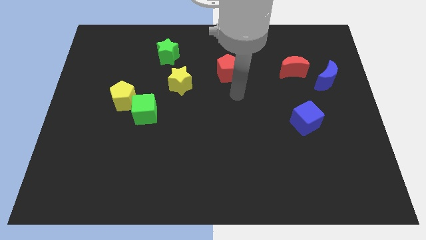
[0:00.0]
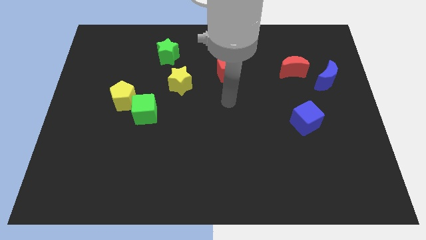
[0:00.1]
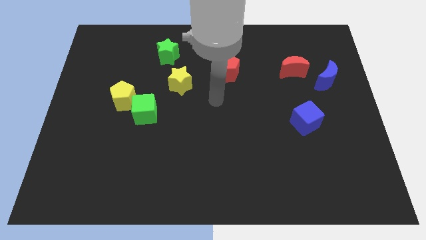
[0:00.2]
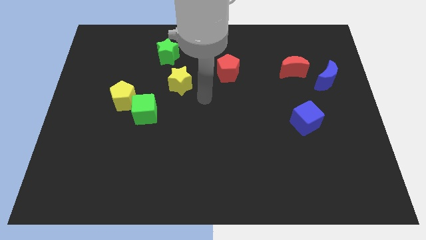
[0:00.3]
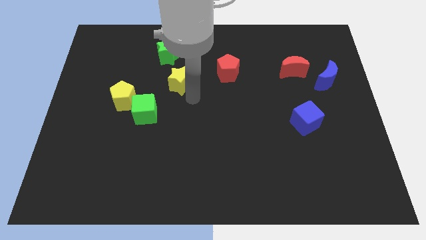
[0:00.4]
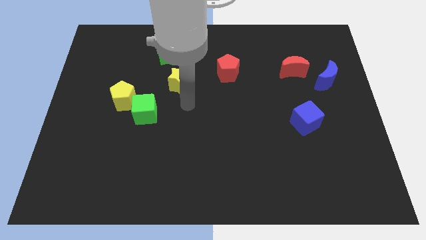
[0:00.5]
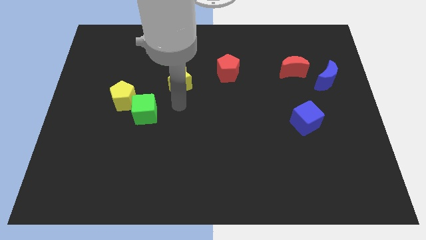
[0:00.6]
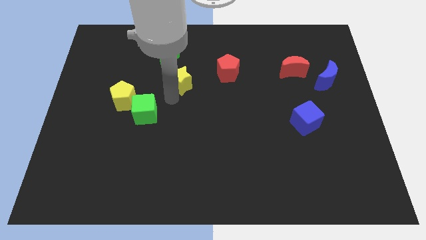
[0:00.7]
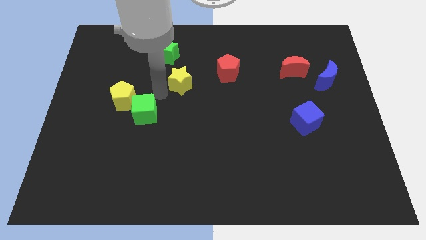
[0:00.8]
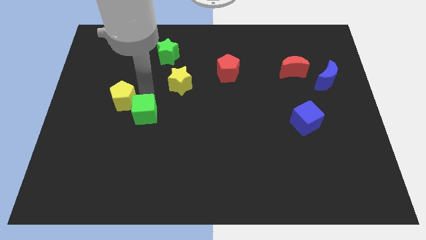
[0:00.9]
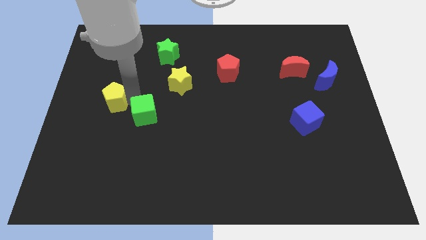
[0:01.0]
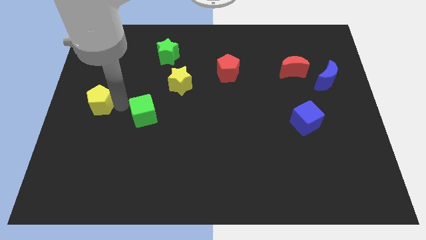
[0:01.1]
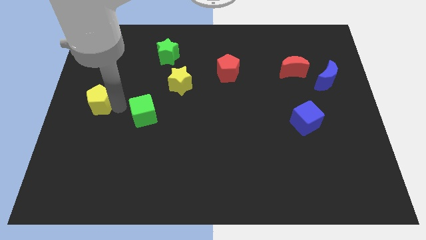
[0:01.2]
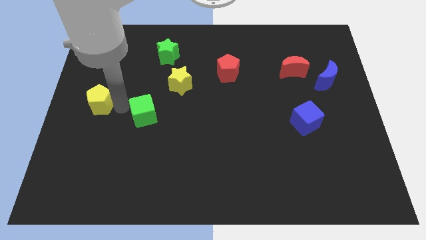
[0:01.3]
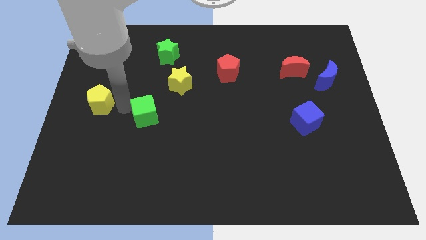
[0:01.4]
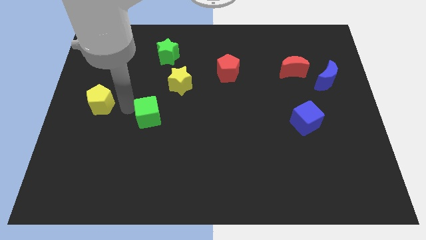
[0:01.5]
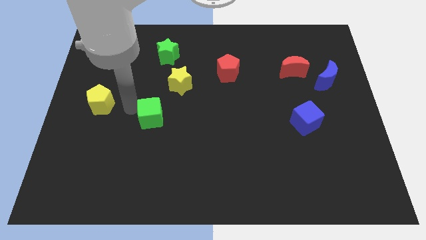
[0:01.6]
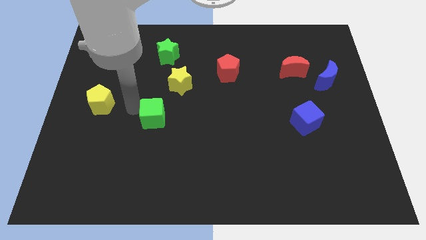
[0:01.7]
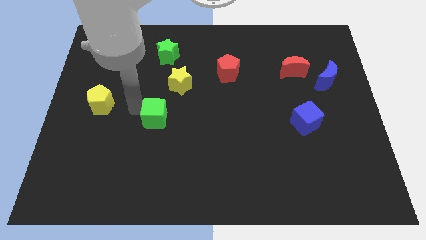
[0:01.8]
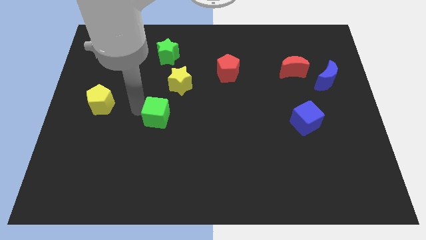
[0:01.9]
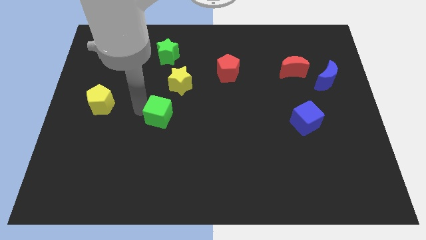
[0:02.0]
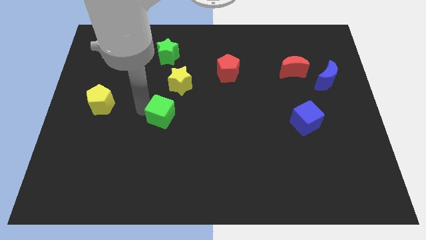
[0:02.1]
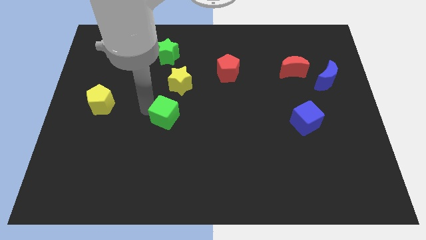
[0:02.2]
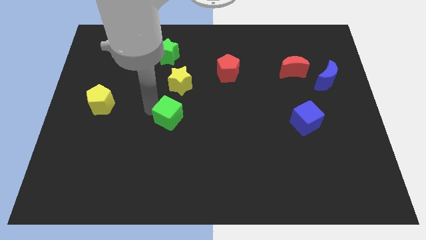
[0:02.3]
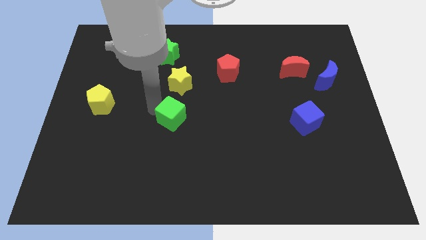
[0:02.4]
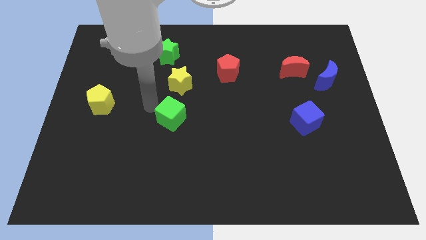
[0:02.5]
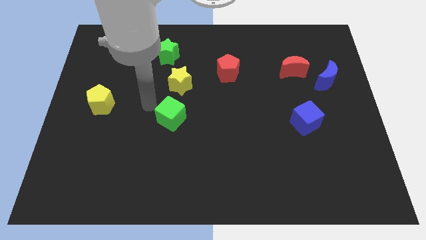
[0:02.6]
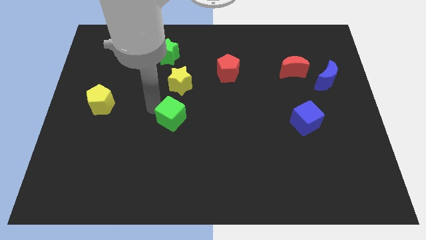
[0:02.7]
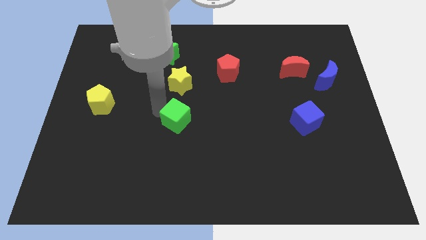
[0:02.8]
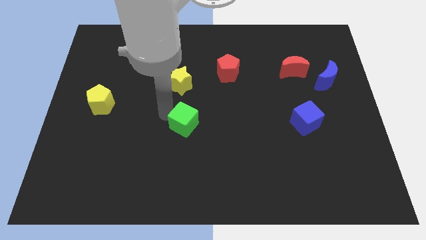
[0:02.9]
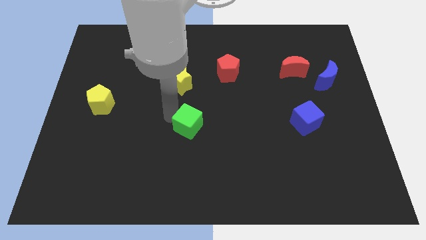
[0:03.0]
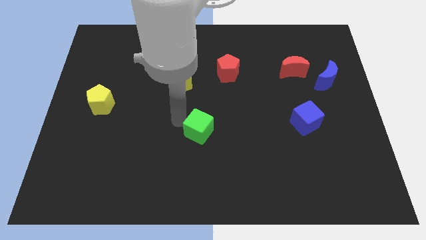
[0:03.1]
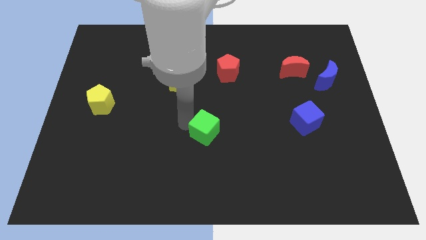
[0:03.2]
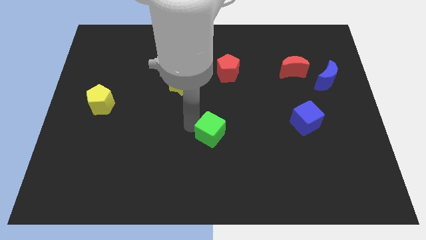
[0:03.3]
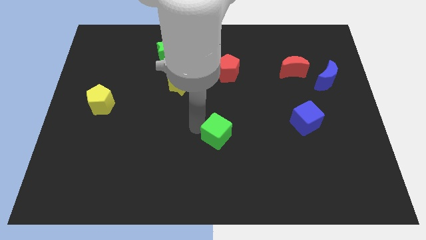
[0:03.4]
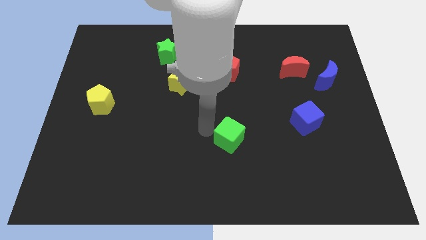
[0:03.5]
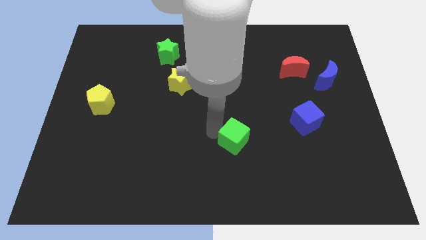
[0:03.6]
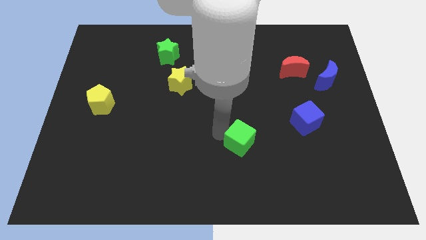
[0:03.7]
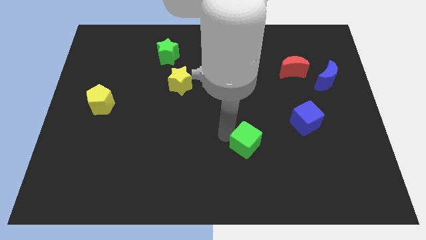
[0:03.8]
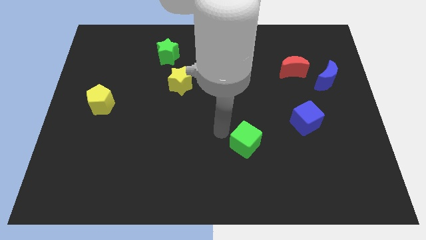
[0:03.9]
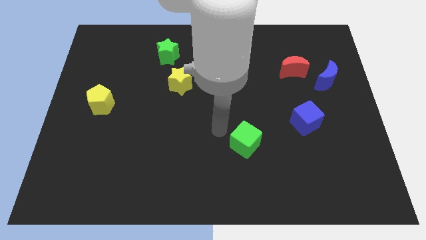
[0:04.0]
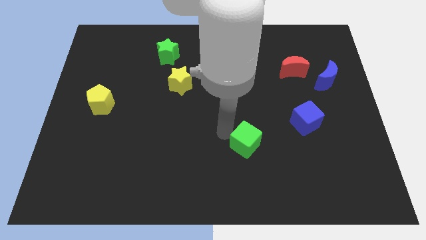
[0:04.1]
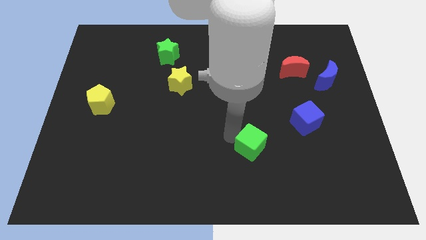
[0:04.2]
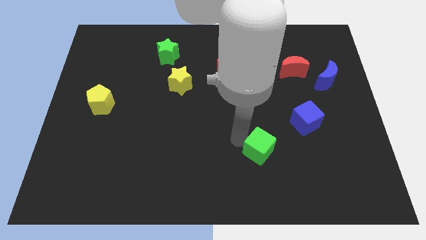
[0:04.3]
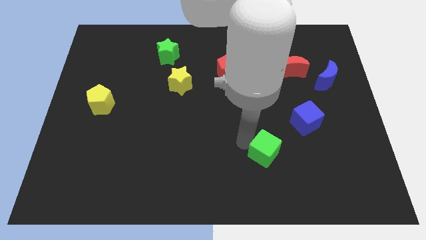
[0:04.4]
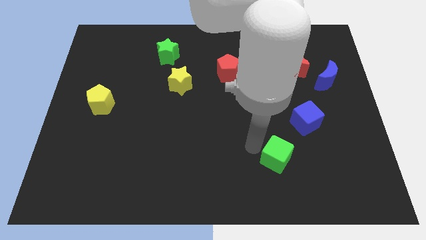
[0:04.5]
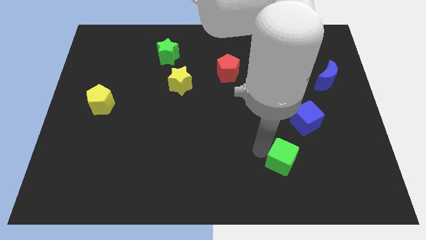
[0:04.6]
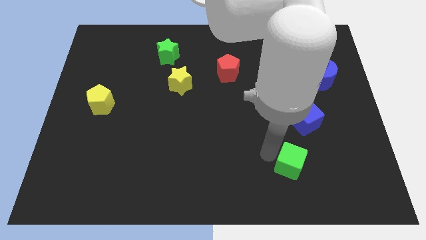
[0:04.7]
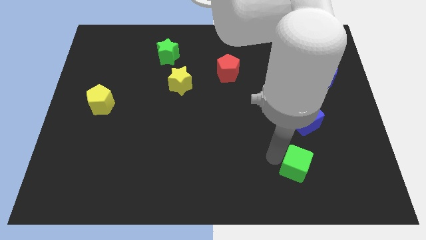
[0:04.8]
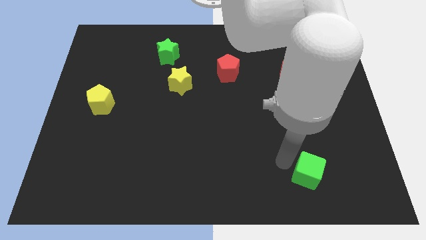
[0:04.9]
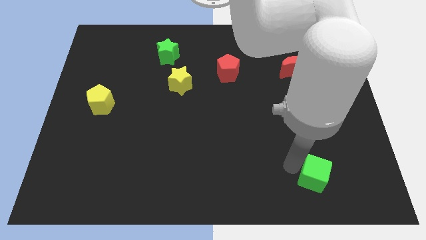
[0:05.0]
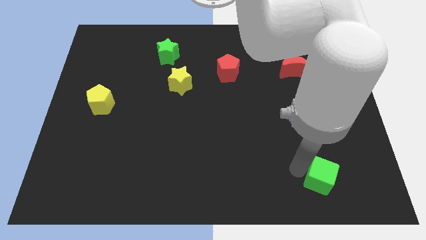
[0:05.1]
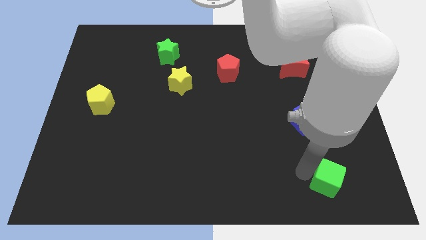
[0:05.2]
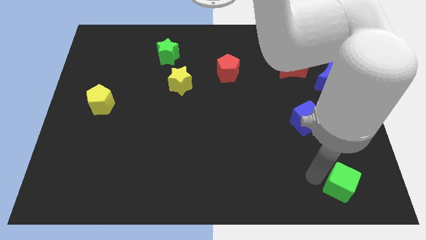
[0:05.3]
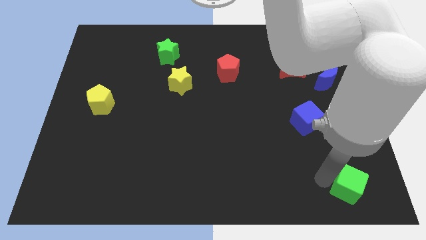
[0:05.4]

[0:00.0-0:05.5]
put the green cube to the bottom right

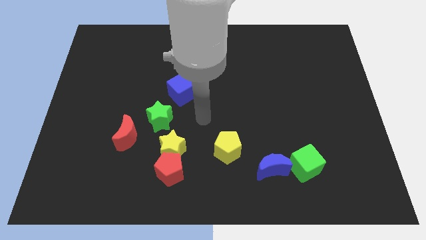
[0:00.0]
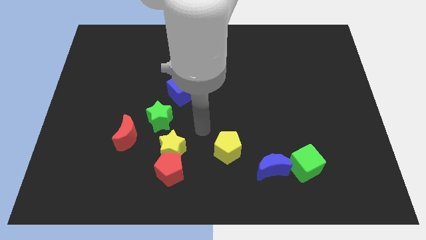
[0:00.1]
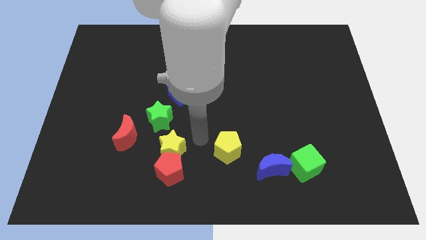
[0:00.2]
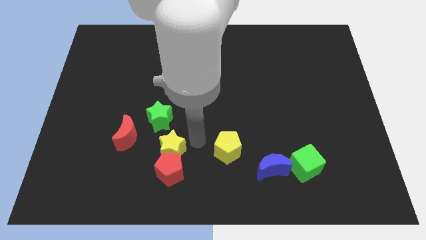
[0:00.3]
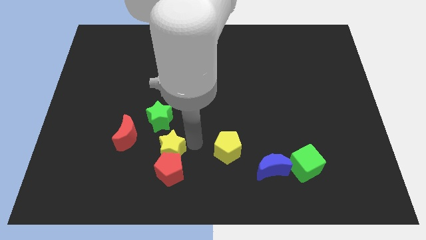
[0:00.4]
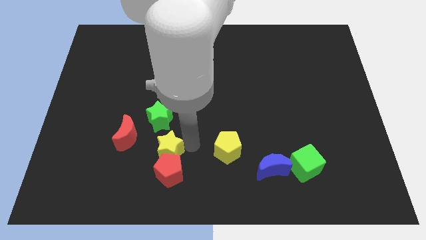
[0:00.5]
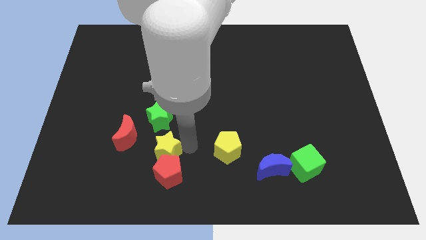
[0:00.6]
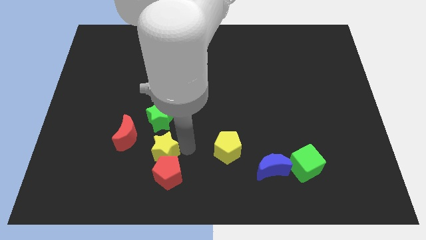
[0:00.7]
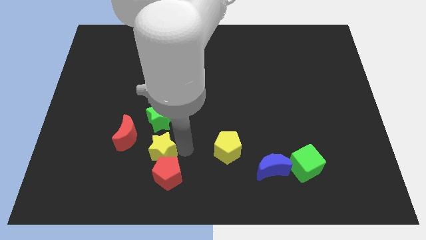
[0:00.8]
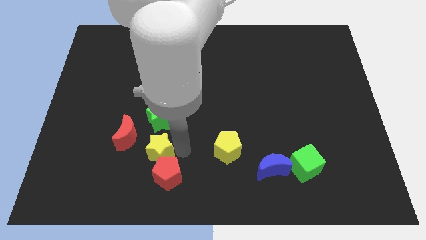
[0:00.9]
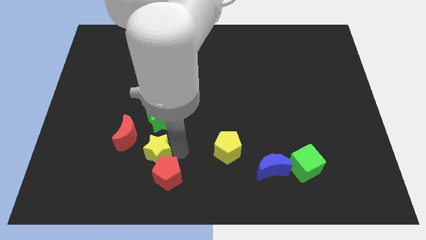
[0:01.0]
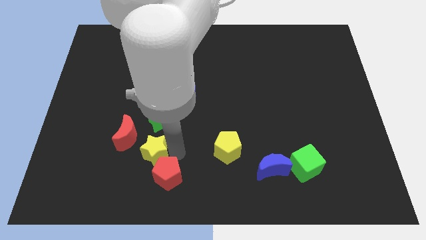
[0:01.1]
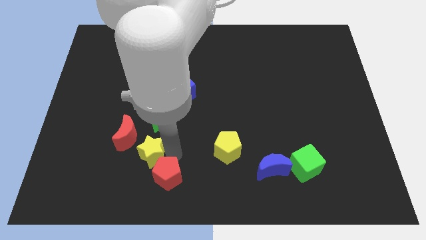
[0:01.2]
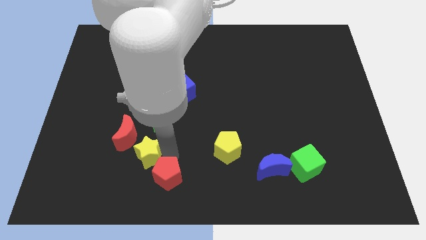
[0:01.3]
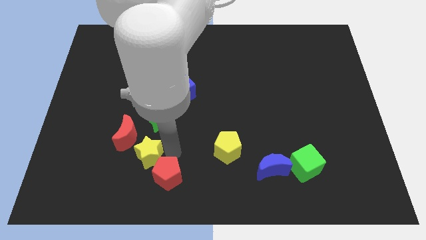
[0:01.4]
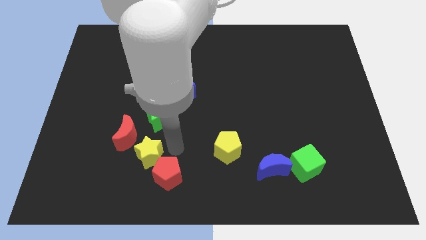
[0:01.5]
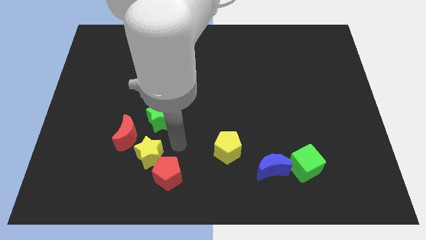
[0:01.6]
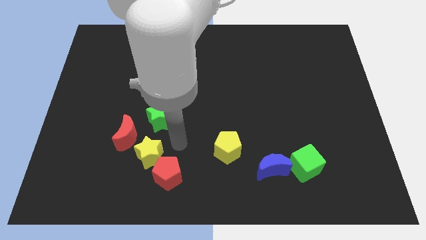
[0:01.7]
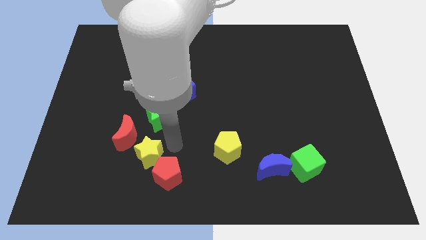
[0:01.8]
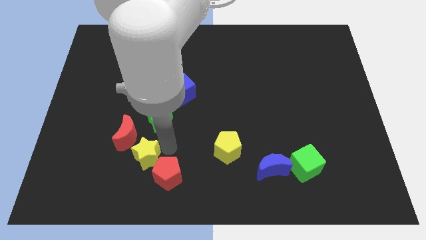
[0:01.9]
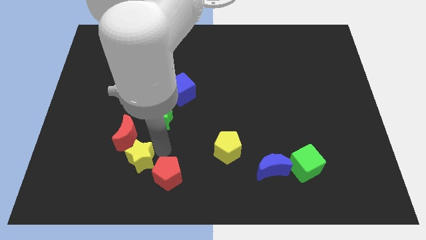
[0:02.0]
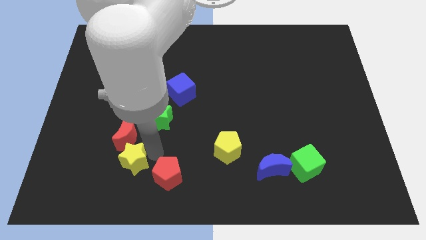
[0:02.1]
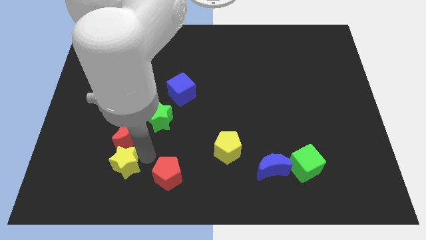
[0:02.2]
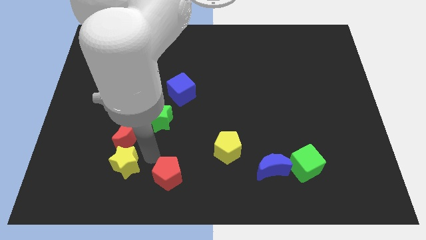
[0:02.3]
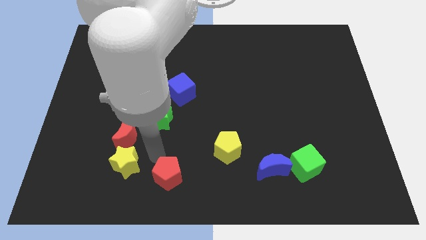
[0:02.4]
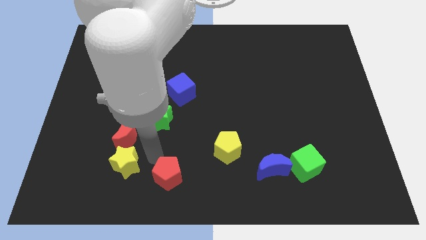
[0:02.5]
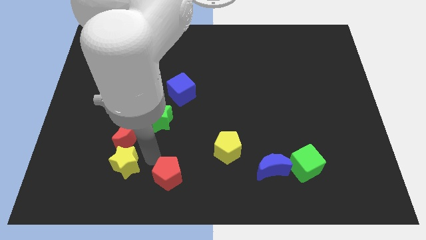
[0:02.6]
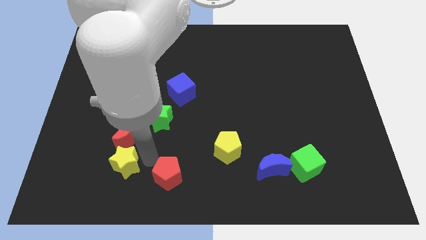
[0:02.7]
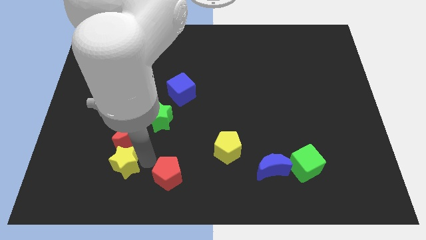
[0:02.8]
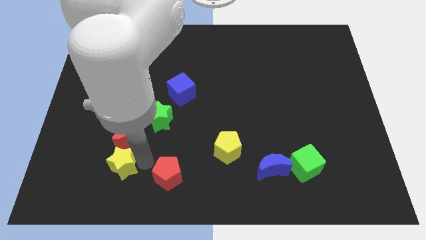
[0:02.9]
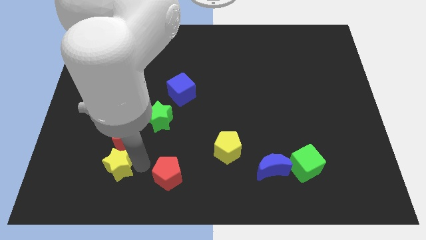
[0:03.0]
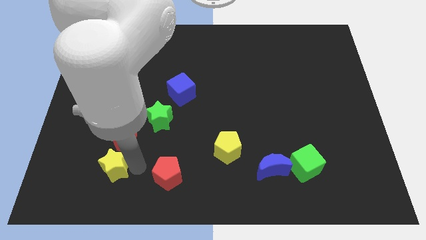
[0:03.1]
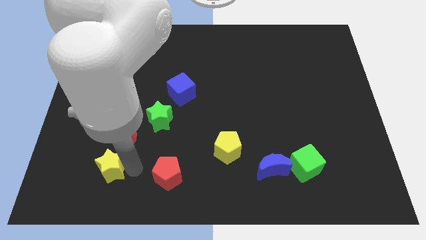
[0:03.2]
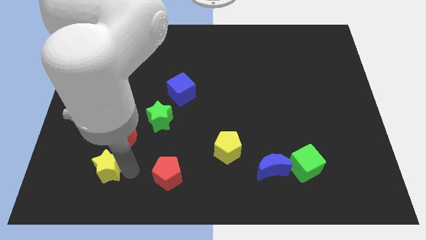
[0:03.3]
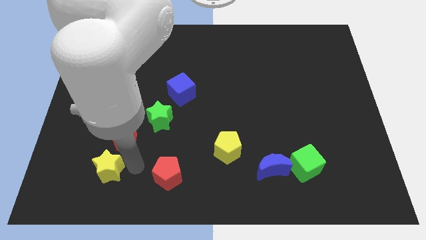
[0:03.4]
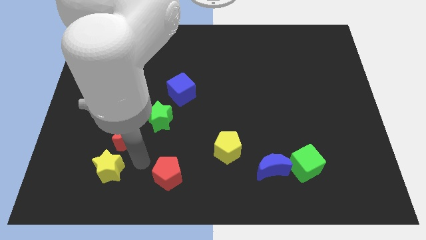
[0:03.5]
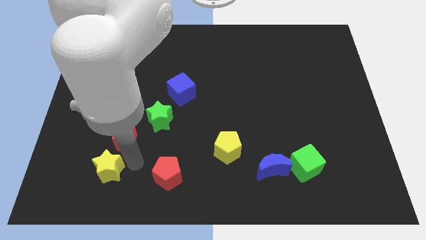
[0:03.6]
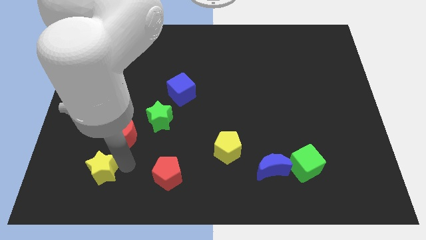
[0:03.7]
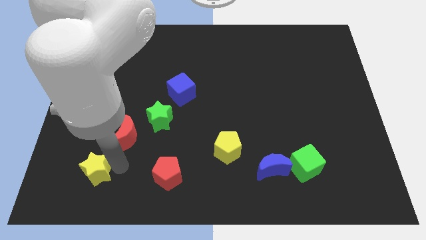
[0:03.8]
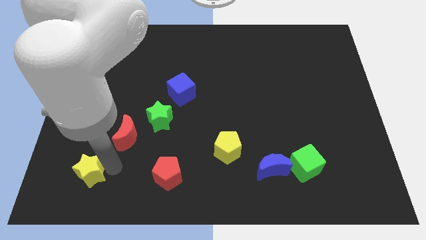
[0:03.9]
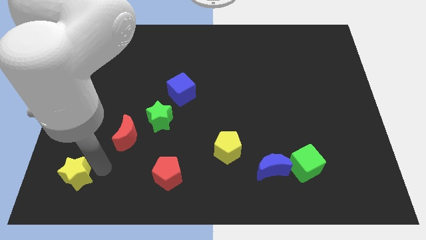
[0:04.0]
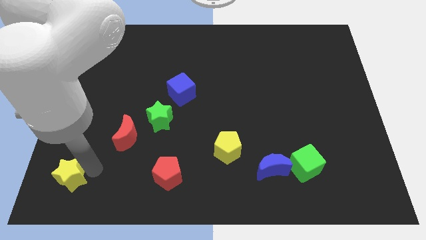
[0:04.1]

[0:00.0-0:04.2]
put the yellow star to the bottom left of the board
